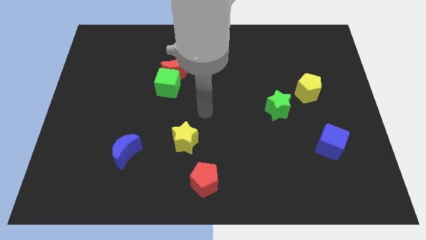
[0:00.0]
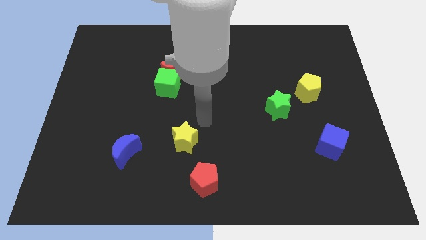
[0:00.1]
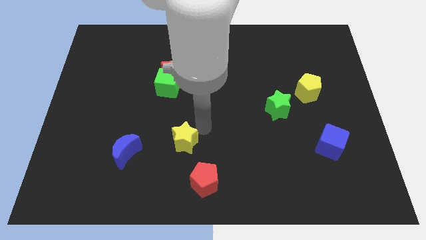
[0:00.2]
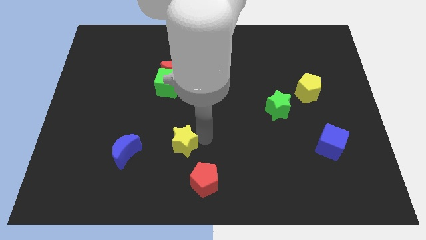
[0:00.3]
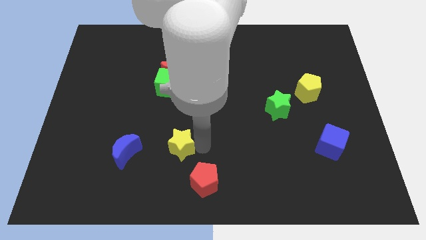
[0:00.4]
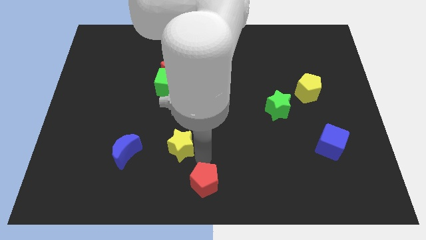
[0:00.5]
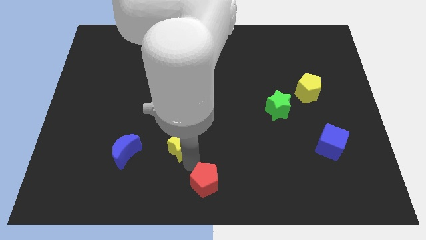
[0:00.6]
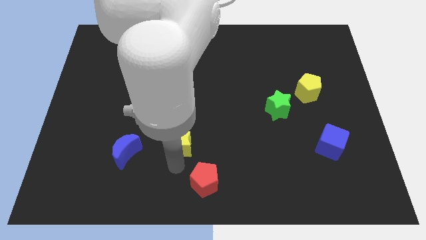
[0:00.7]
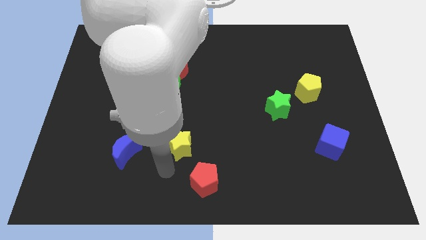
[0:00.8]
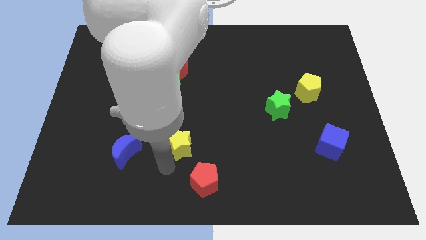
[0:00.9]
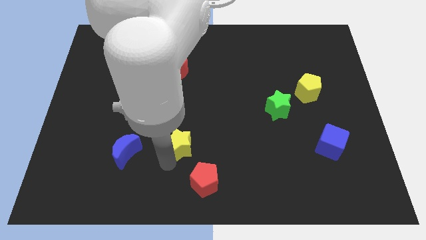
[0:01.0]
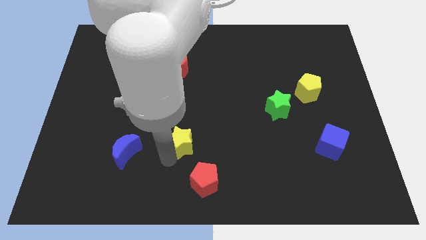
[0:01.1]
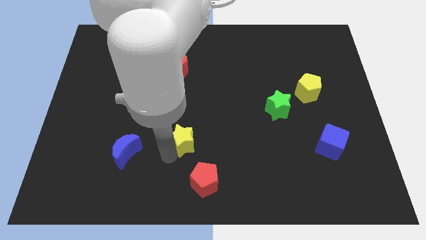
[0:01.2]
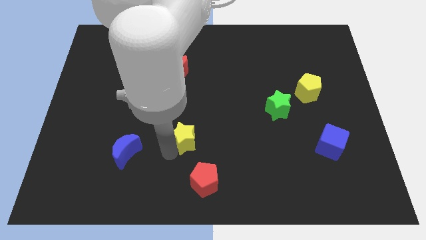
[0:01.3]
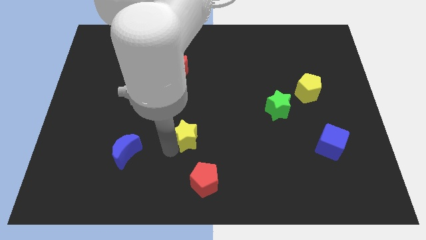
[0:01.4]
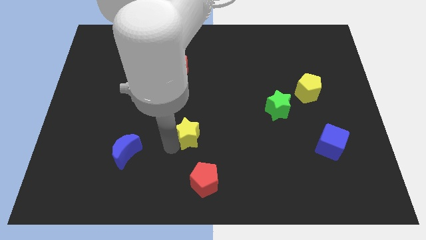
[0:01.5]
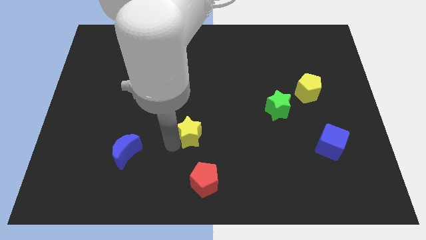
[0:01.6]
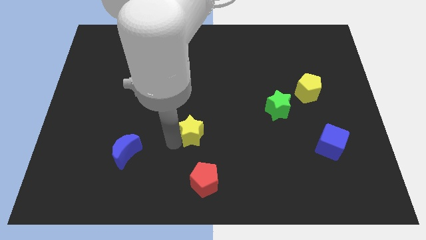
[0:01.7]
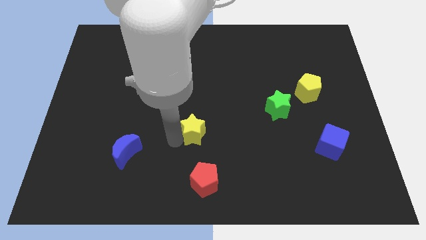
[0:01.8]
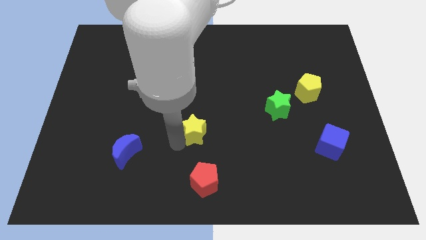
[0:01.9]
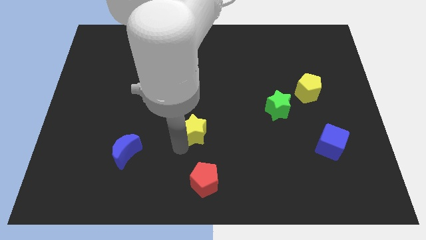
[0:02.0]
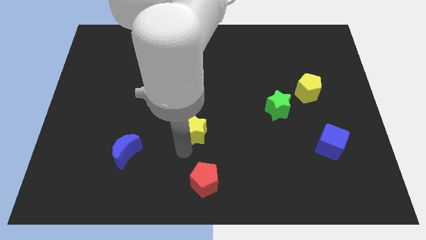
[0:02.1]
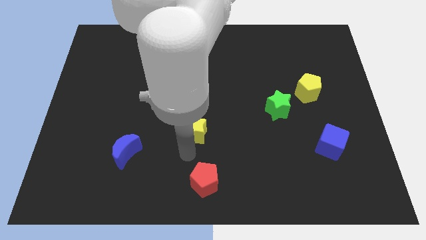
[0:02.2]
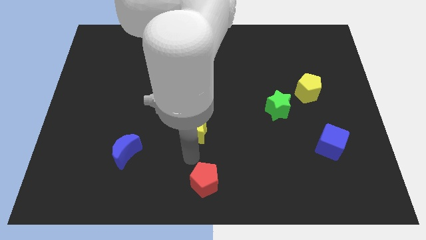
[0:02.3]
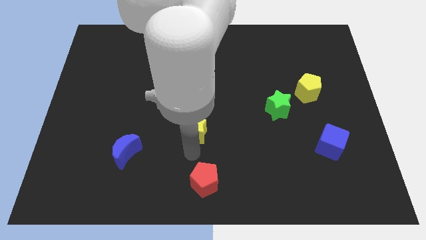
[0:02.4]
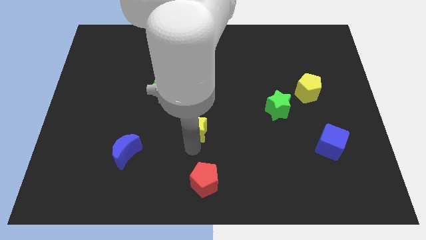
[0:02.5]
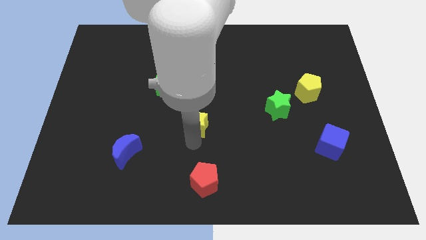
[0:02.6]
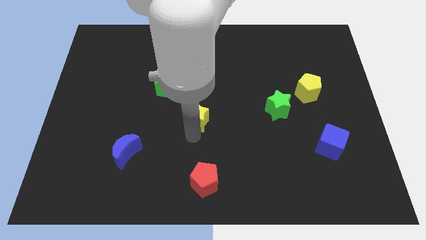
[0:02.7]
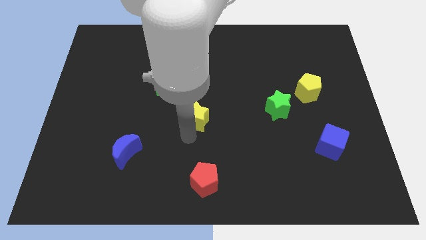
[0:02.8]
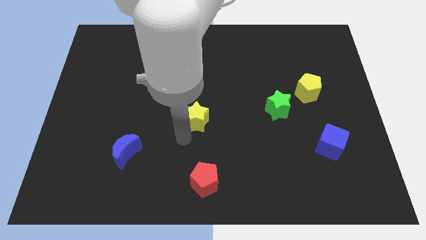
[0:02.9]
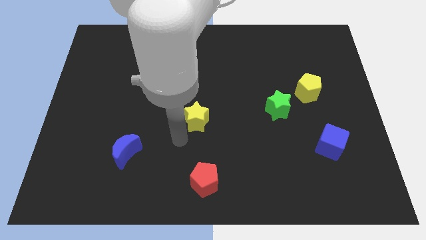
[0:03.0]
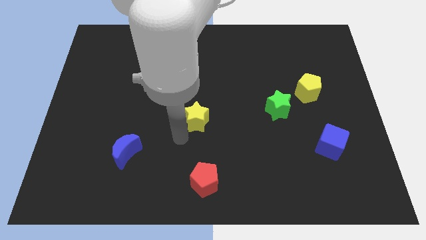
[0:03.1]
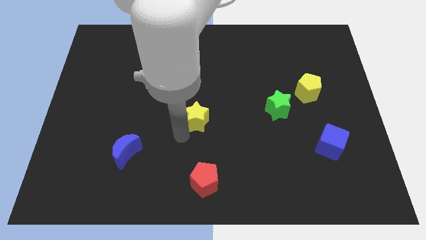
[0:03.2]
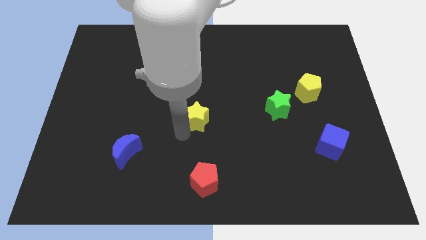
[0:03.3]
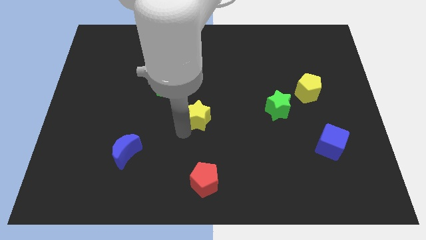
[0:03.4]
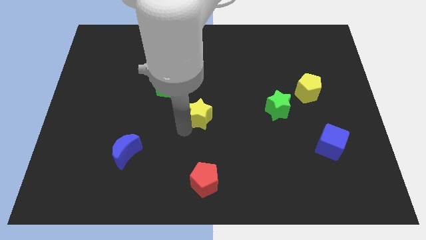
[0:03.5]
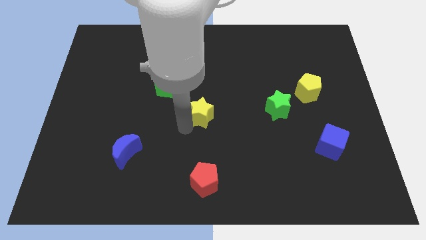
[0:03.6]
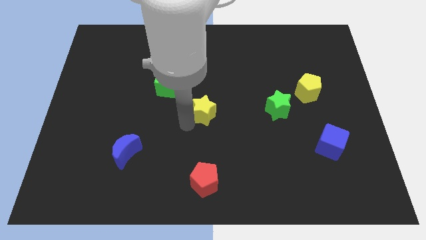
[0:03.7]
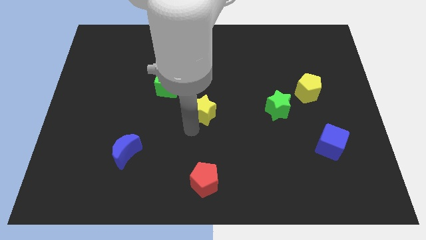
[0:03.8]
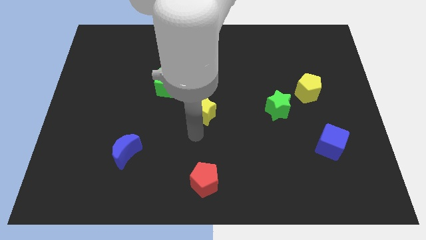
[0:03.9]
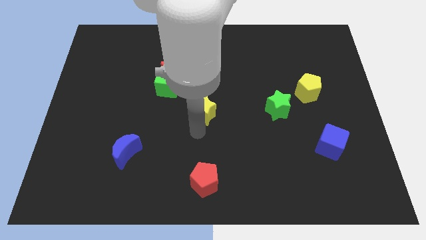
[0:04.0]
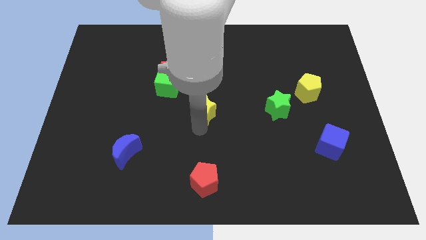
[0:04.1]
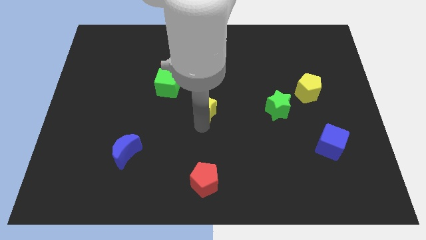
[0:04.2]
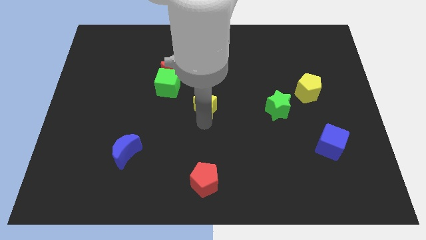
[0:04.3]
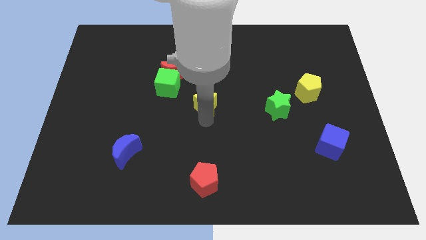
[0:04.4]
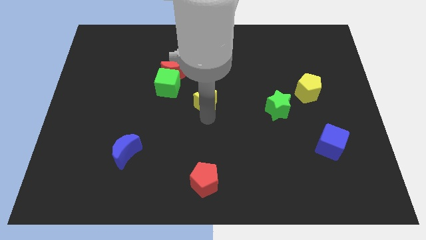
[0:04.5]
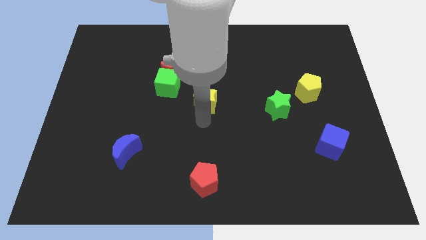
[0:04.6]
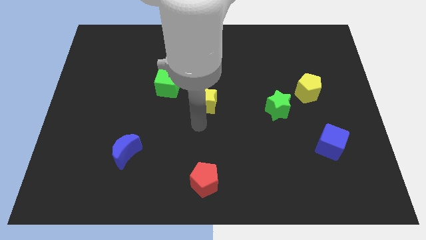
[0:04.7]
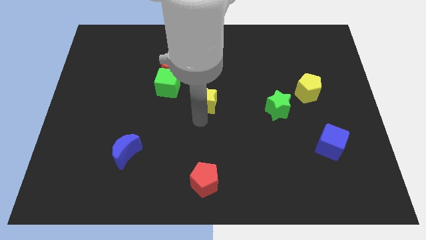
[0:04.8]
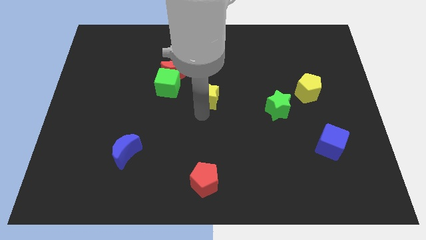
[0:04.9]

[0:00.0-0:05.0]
move the yellow star to the right of the green cube

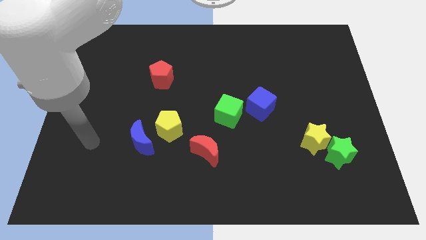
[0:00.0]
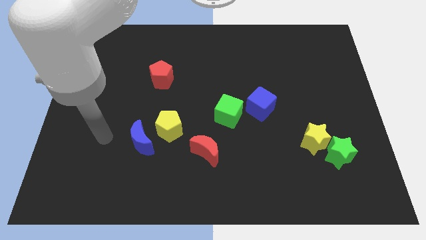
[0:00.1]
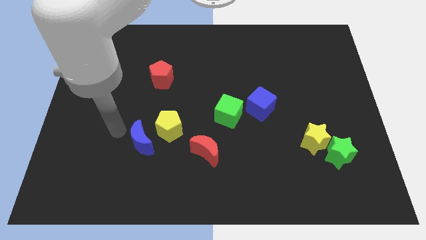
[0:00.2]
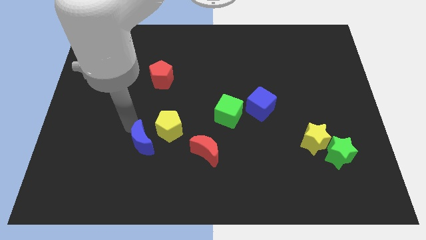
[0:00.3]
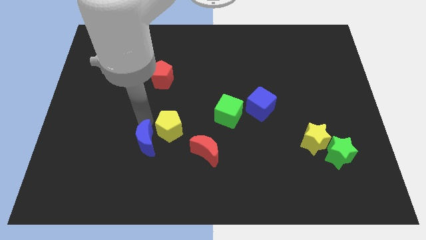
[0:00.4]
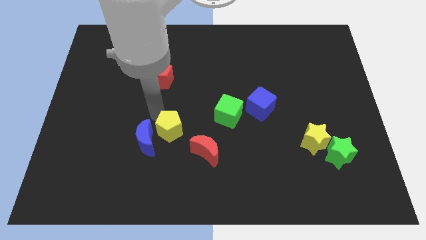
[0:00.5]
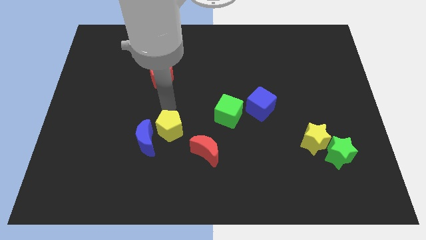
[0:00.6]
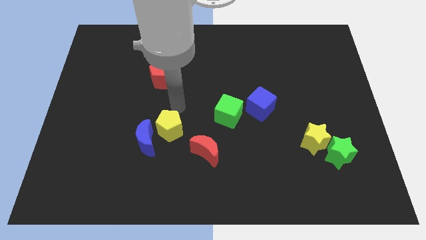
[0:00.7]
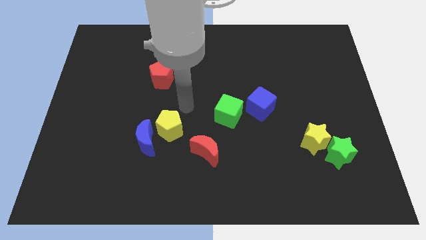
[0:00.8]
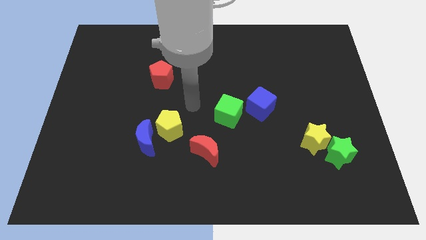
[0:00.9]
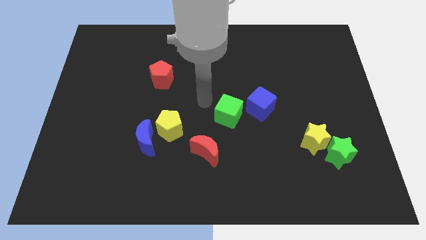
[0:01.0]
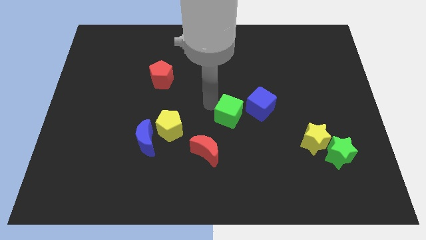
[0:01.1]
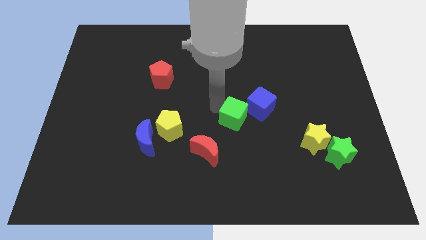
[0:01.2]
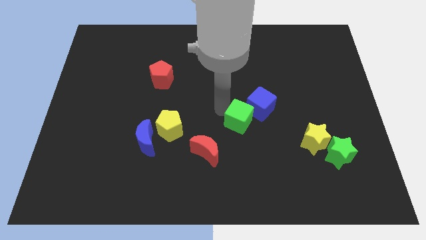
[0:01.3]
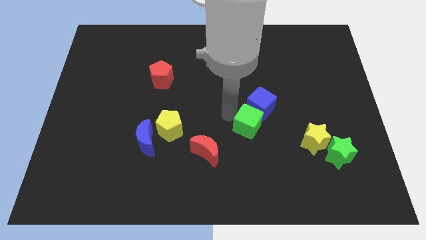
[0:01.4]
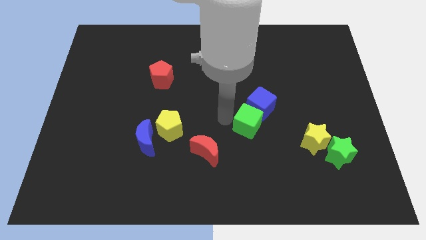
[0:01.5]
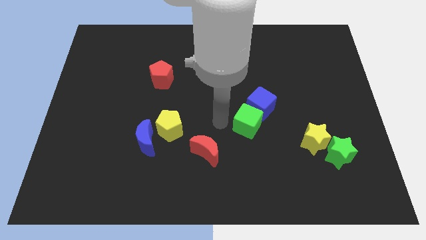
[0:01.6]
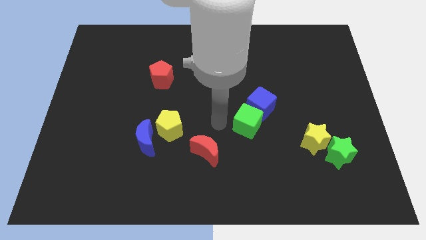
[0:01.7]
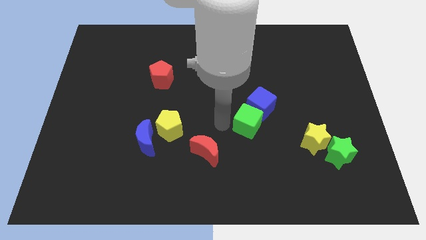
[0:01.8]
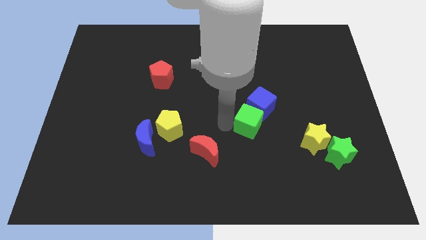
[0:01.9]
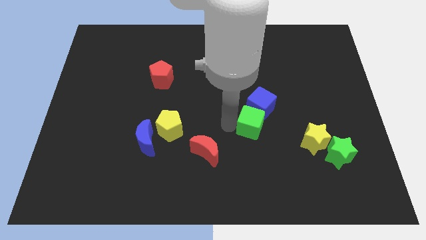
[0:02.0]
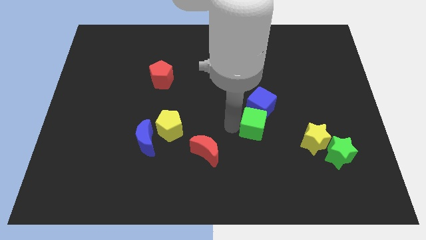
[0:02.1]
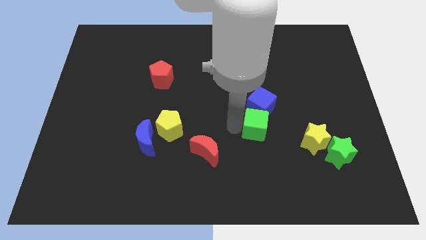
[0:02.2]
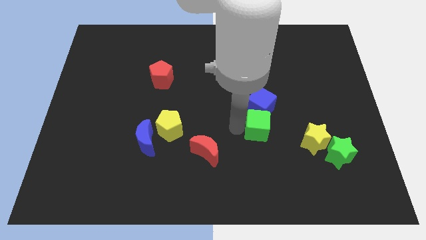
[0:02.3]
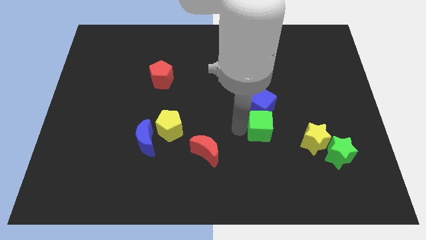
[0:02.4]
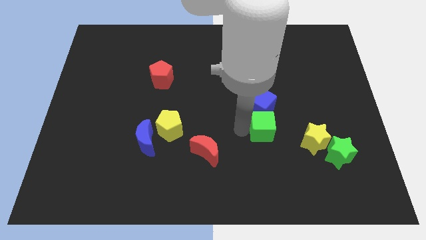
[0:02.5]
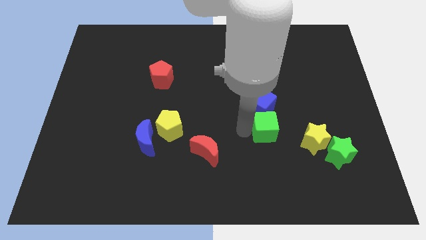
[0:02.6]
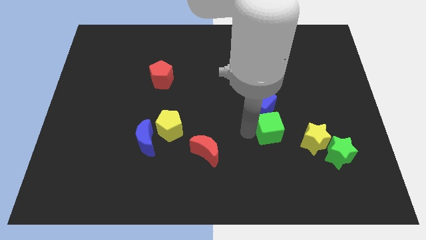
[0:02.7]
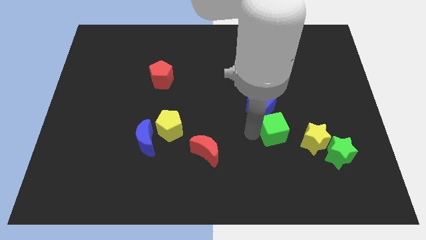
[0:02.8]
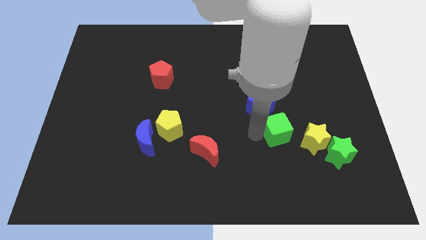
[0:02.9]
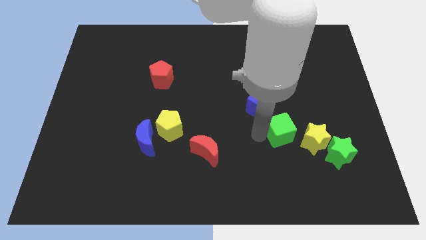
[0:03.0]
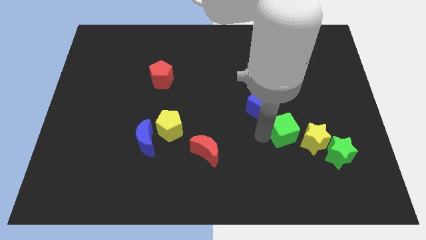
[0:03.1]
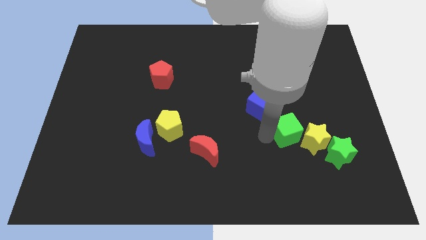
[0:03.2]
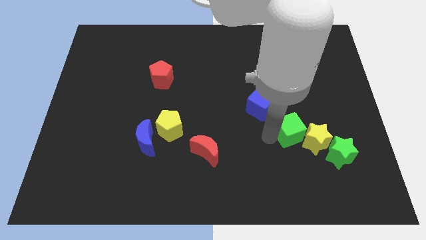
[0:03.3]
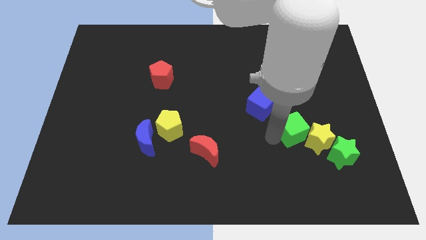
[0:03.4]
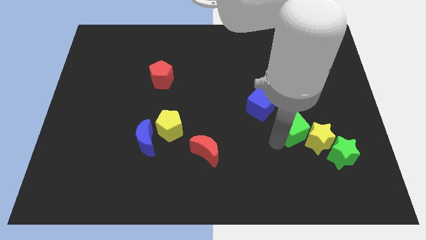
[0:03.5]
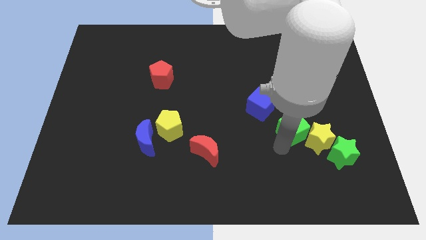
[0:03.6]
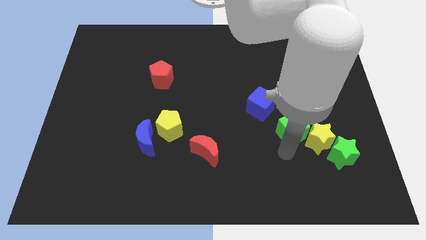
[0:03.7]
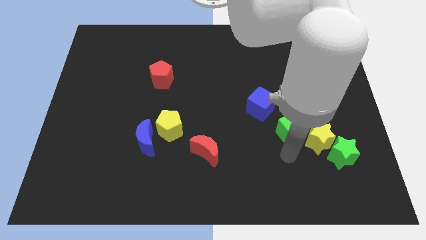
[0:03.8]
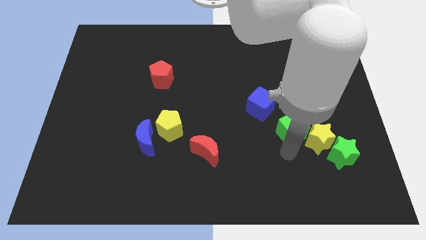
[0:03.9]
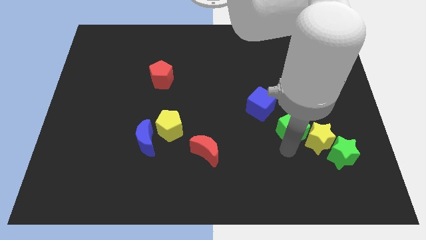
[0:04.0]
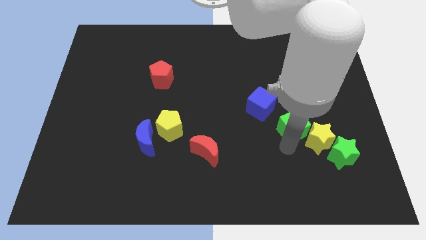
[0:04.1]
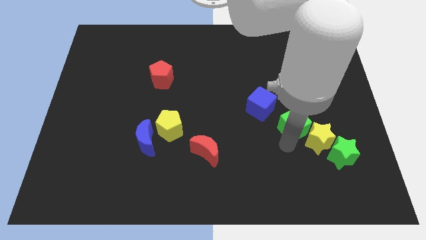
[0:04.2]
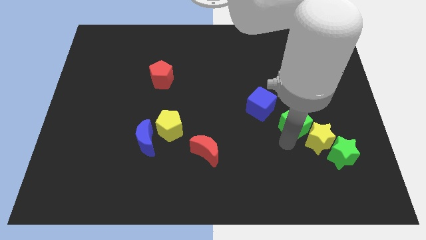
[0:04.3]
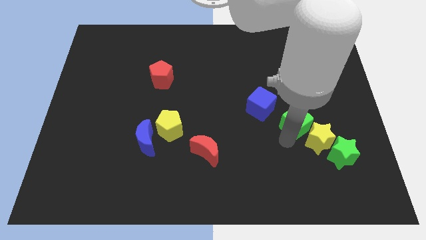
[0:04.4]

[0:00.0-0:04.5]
move the green cube to the top side of the yellow star
